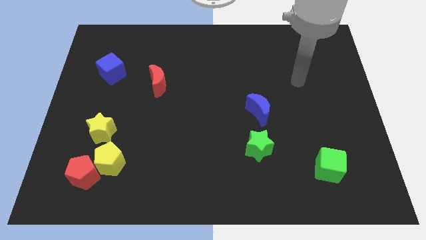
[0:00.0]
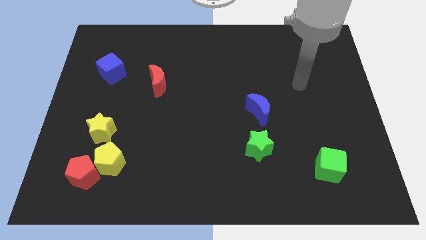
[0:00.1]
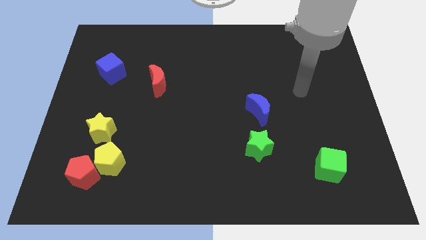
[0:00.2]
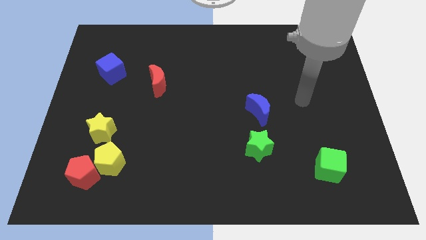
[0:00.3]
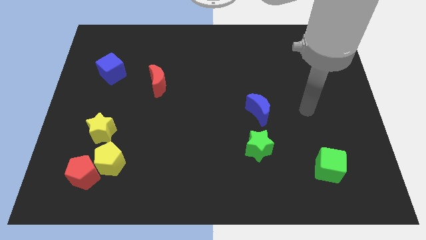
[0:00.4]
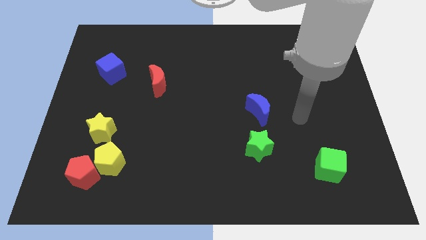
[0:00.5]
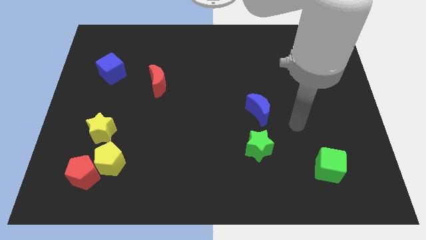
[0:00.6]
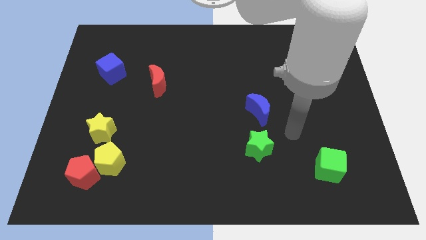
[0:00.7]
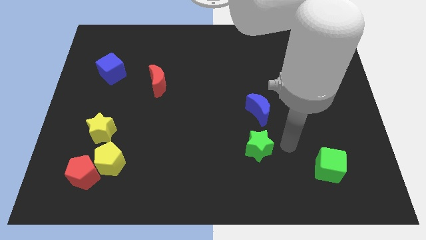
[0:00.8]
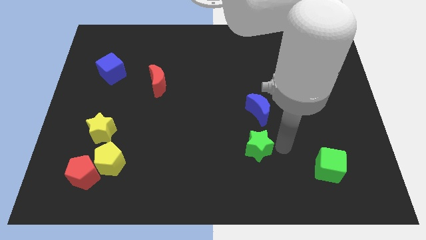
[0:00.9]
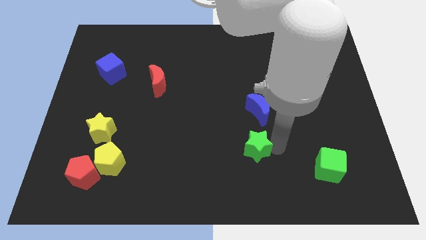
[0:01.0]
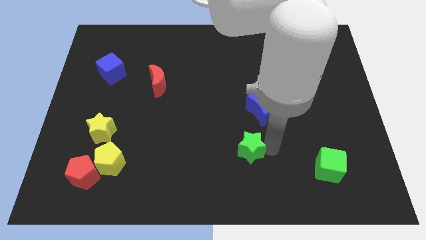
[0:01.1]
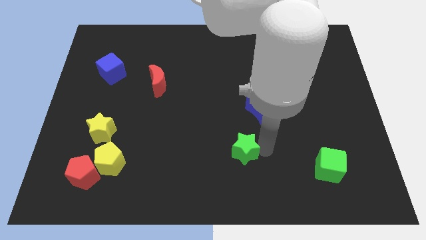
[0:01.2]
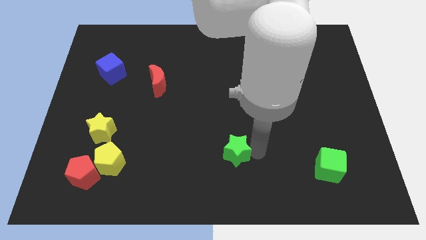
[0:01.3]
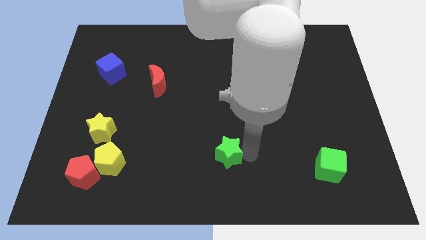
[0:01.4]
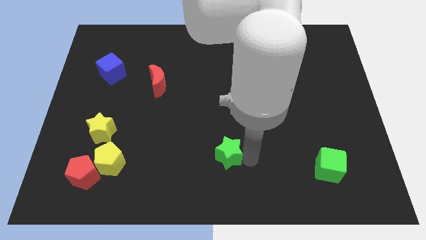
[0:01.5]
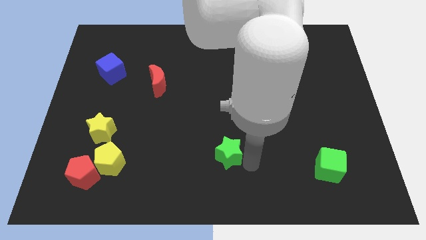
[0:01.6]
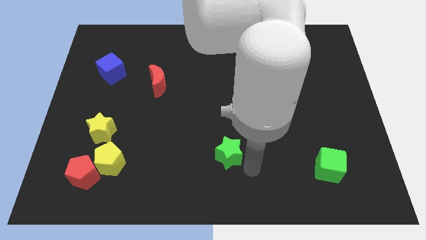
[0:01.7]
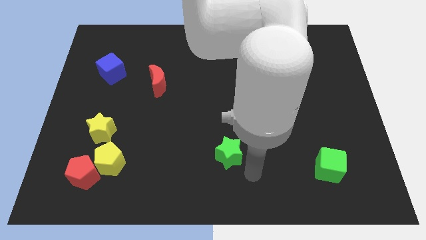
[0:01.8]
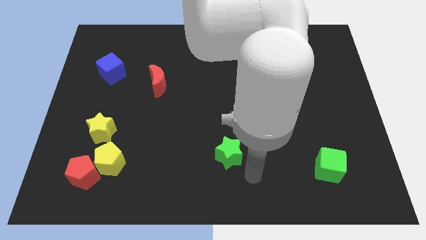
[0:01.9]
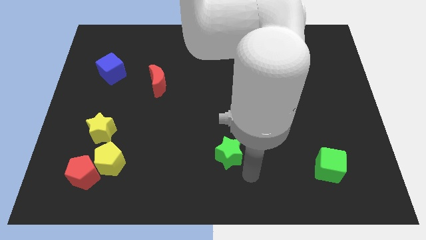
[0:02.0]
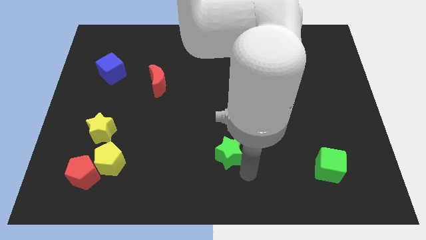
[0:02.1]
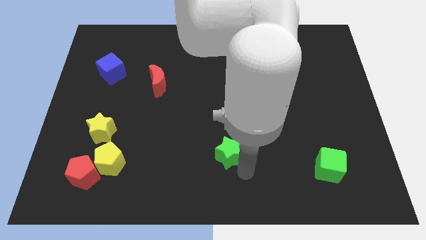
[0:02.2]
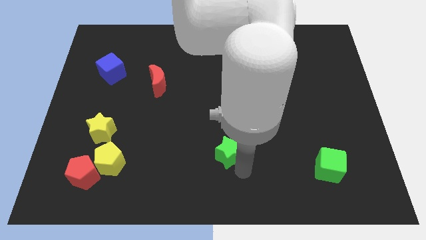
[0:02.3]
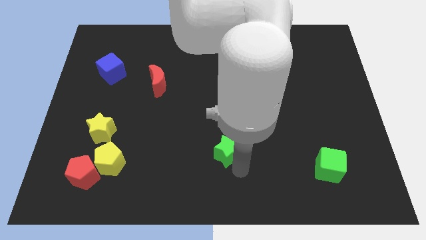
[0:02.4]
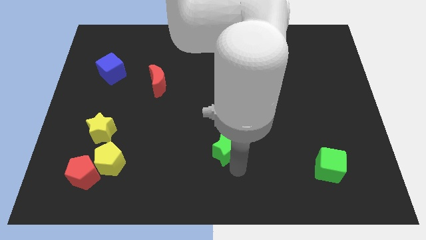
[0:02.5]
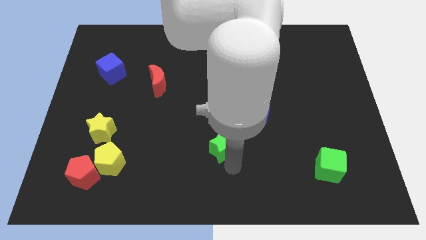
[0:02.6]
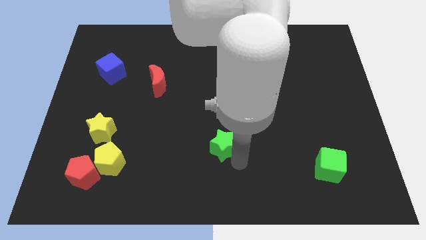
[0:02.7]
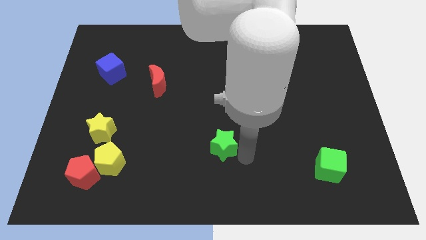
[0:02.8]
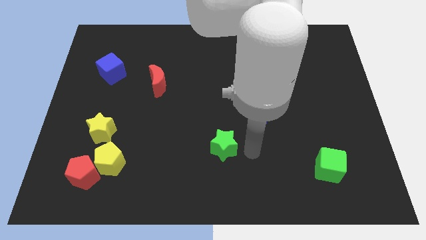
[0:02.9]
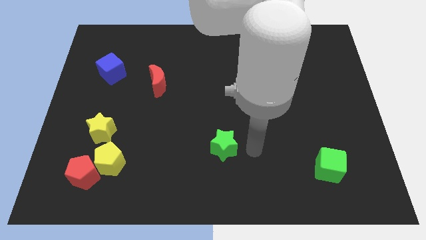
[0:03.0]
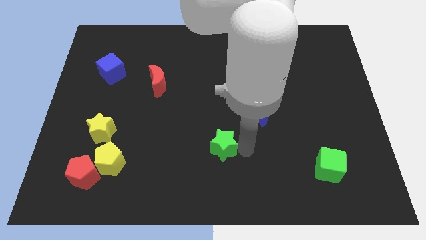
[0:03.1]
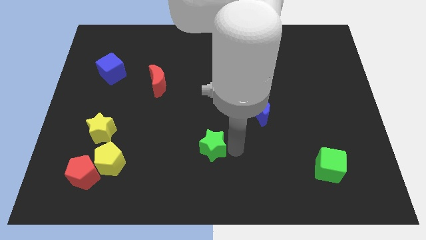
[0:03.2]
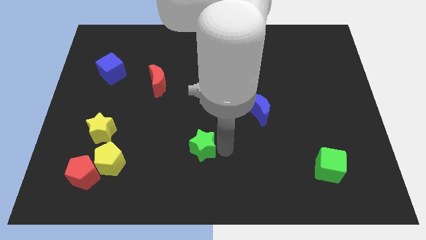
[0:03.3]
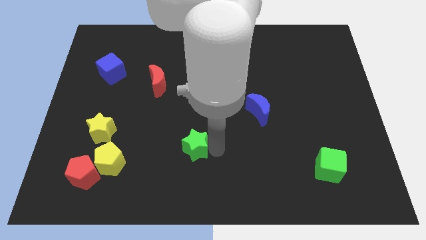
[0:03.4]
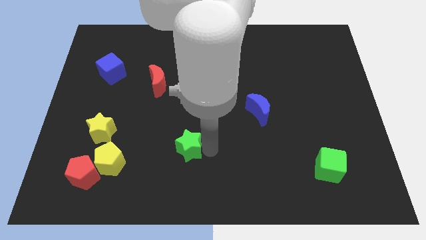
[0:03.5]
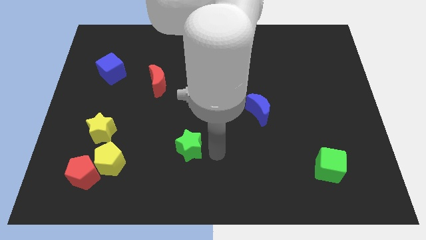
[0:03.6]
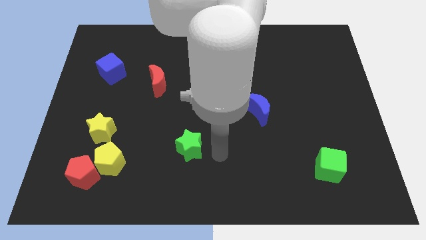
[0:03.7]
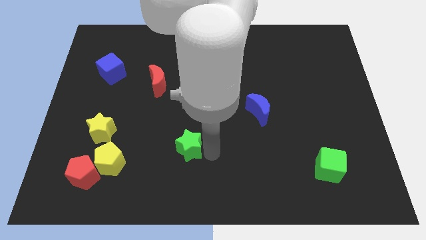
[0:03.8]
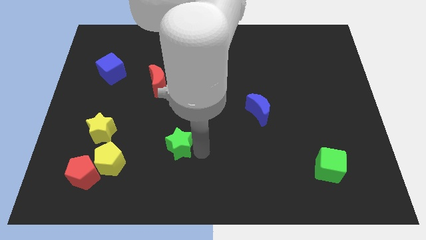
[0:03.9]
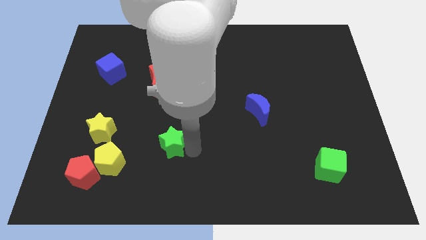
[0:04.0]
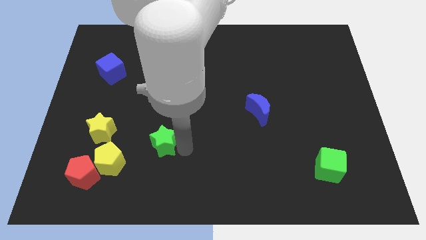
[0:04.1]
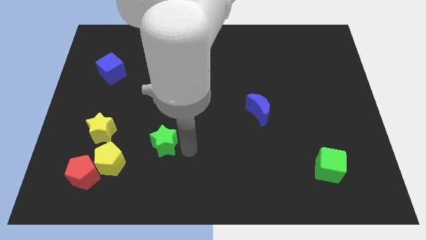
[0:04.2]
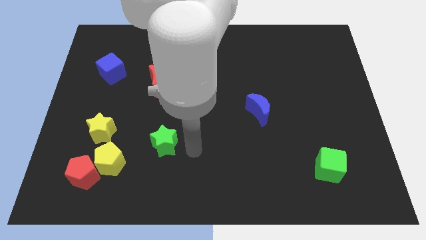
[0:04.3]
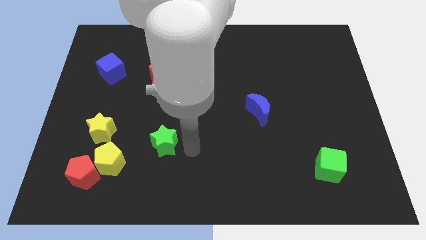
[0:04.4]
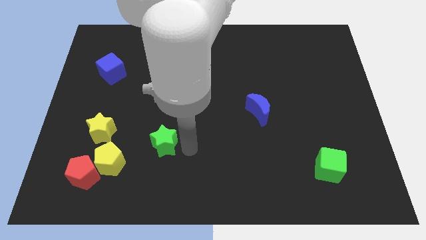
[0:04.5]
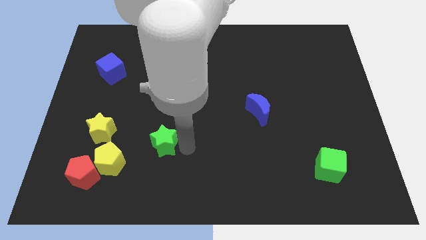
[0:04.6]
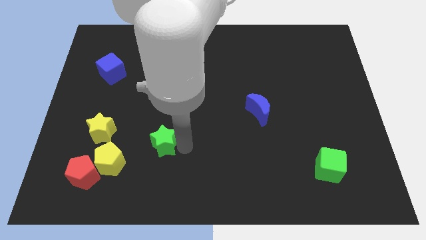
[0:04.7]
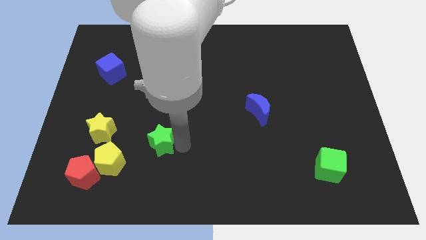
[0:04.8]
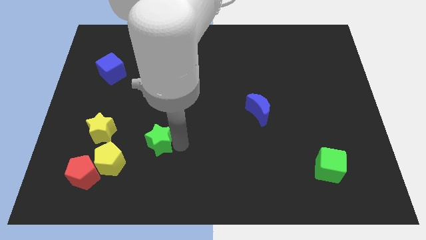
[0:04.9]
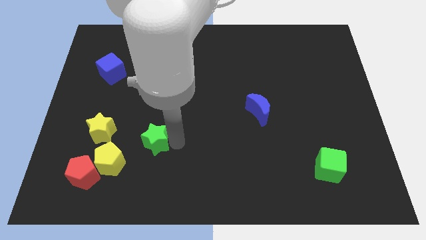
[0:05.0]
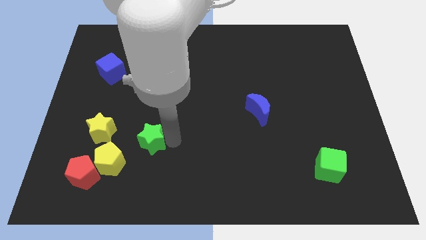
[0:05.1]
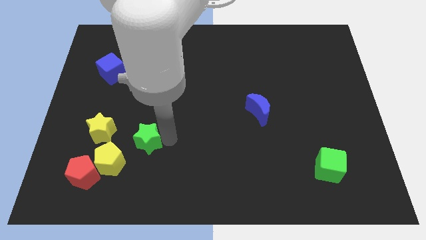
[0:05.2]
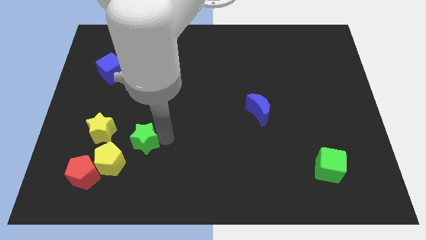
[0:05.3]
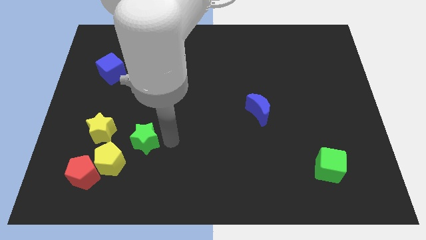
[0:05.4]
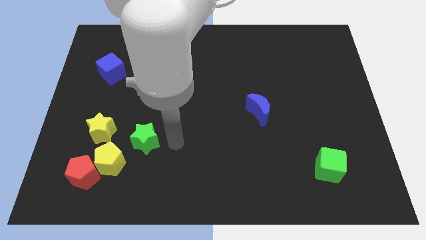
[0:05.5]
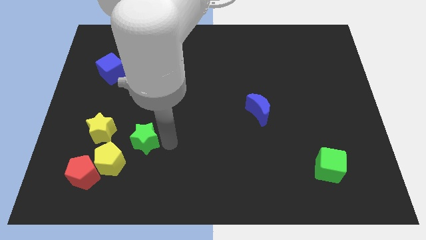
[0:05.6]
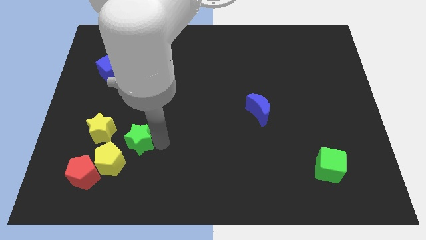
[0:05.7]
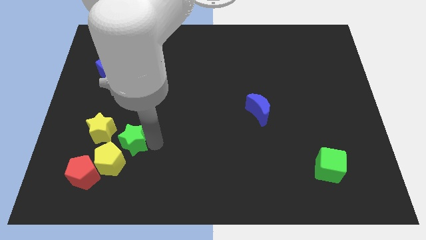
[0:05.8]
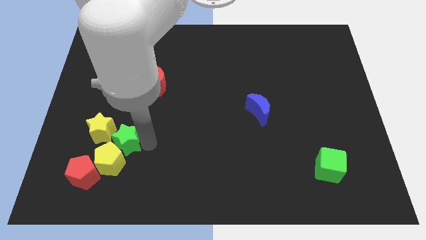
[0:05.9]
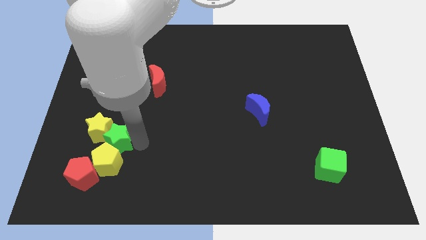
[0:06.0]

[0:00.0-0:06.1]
slide the green star diagonally up and to the left of the yellow pentagon

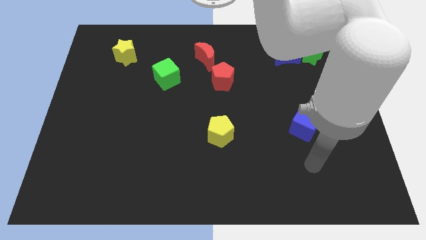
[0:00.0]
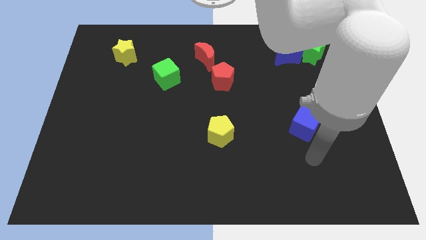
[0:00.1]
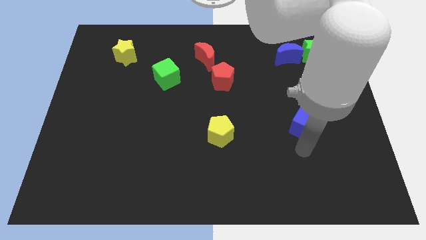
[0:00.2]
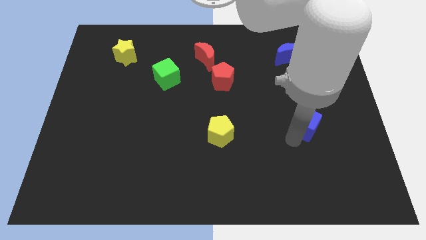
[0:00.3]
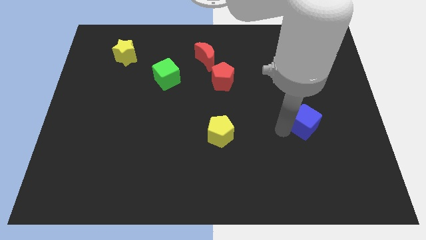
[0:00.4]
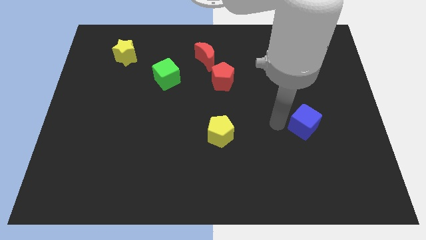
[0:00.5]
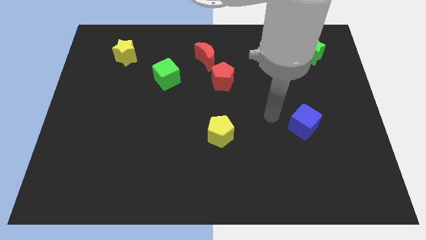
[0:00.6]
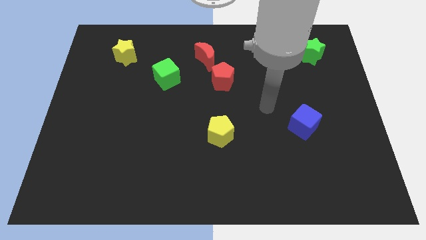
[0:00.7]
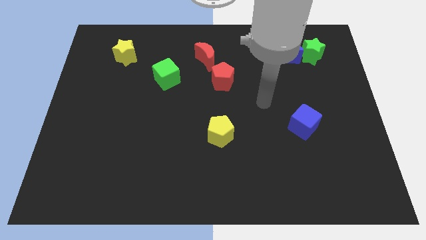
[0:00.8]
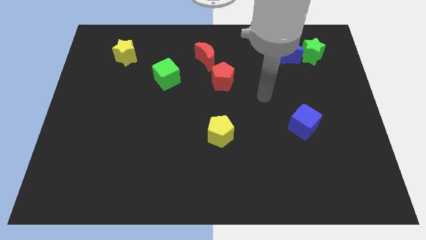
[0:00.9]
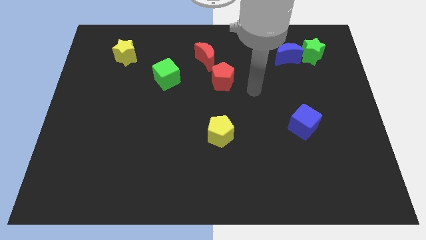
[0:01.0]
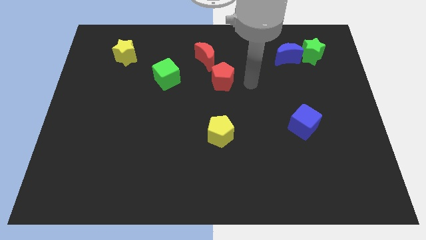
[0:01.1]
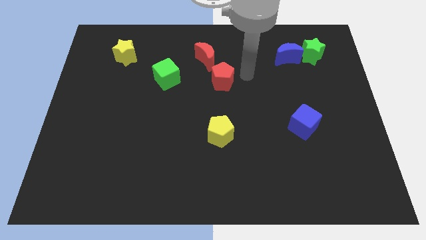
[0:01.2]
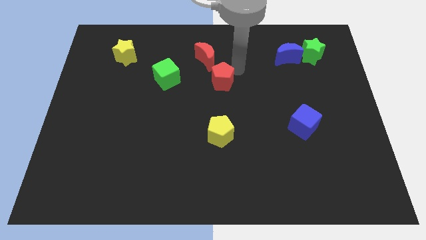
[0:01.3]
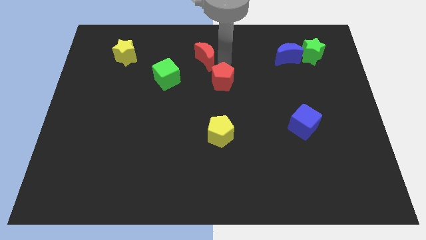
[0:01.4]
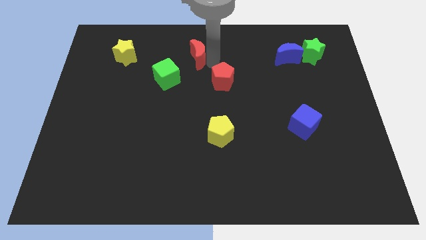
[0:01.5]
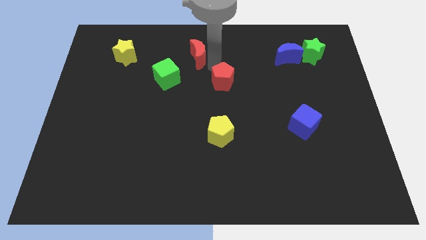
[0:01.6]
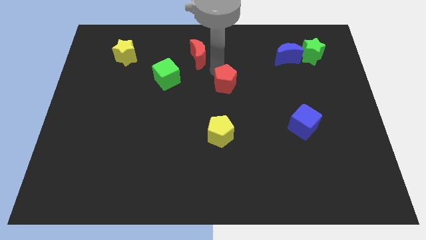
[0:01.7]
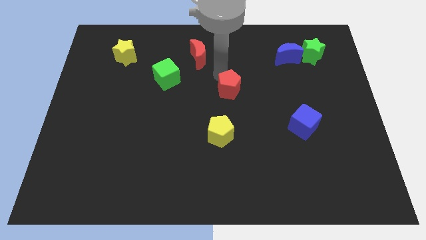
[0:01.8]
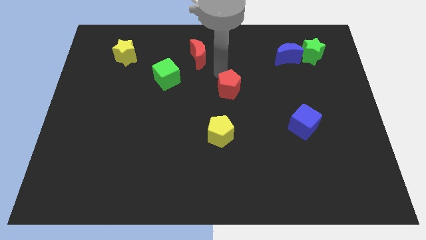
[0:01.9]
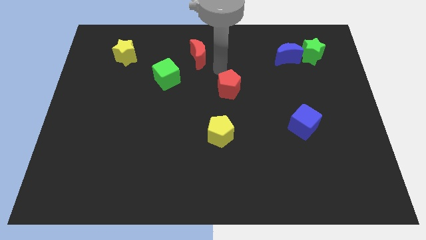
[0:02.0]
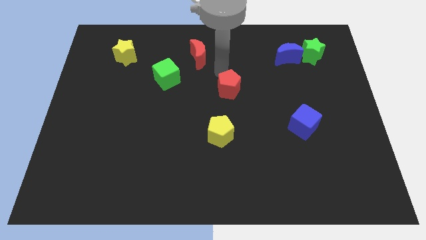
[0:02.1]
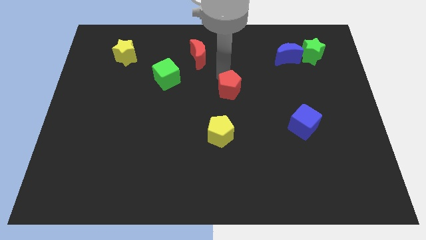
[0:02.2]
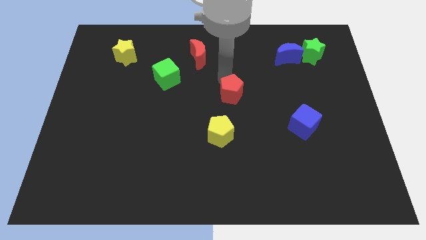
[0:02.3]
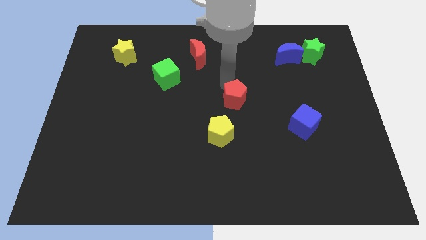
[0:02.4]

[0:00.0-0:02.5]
slide the red pentagon to the top right side of the yellow pentagon
